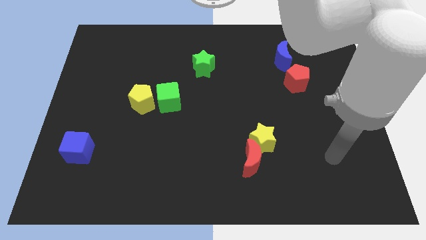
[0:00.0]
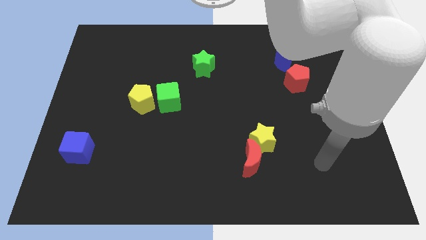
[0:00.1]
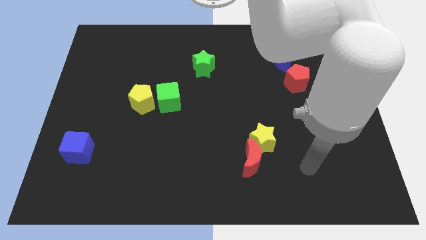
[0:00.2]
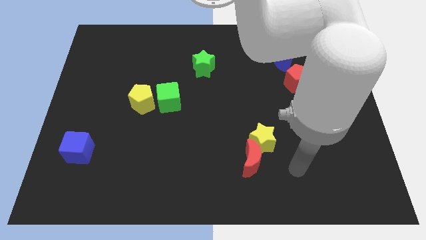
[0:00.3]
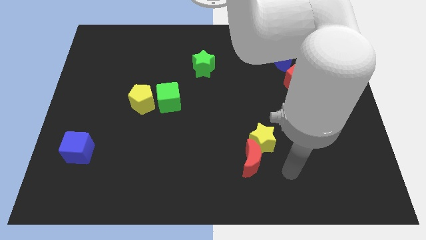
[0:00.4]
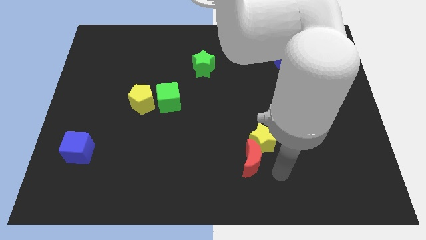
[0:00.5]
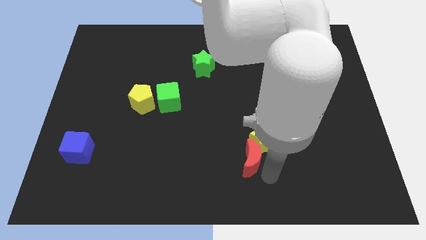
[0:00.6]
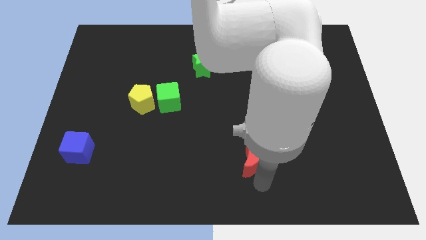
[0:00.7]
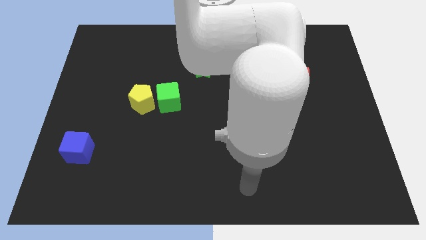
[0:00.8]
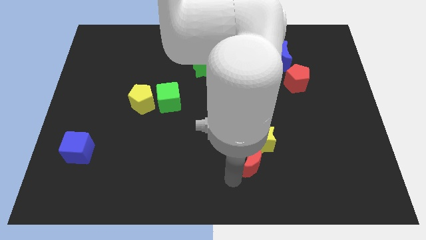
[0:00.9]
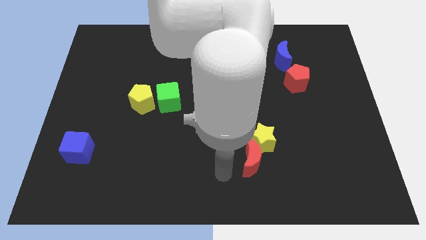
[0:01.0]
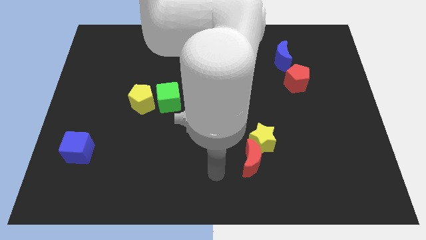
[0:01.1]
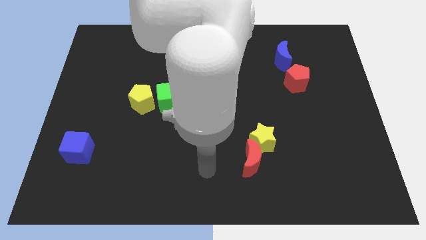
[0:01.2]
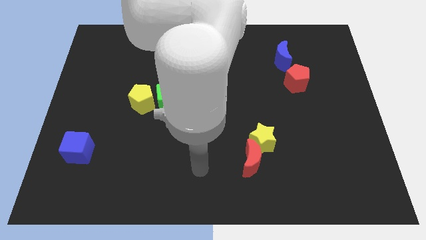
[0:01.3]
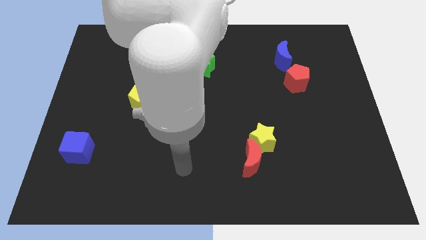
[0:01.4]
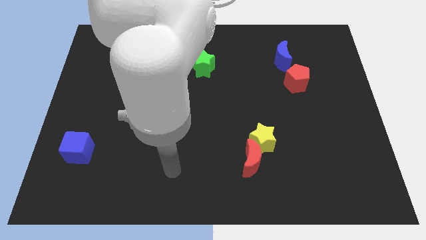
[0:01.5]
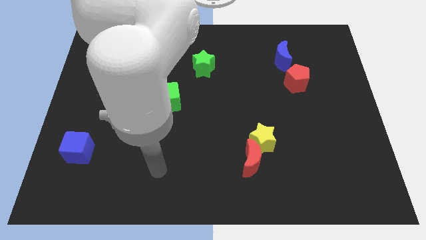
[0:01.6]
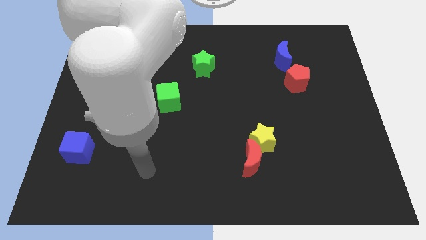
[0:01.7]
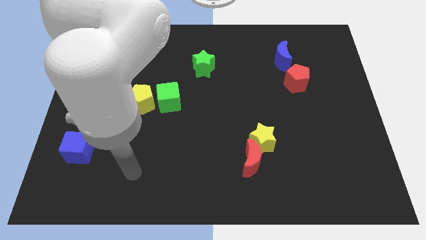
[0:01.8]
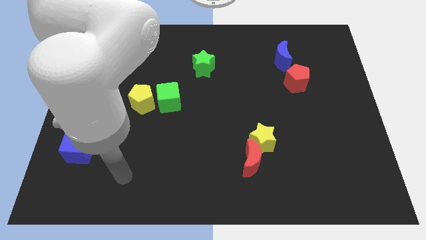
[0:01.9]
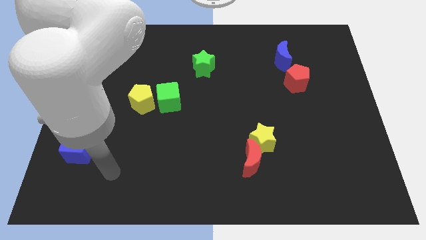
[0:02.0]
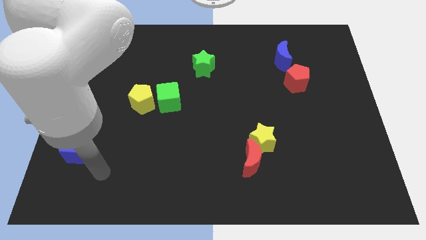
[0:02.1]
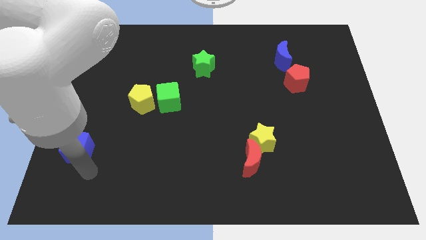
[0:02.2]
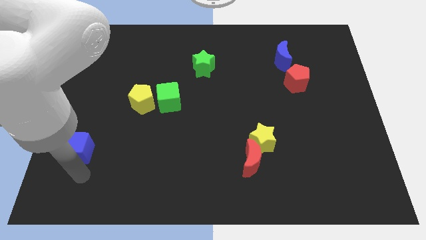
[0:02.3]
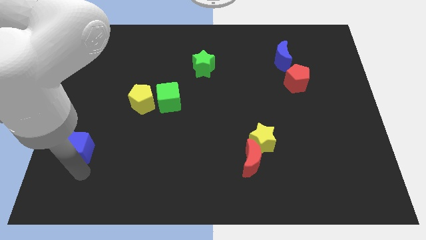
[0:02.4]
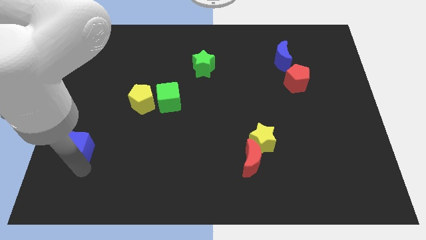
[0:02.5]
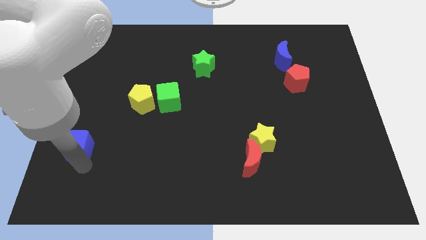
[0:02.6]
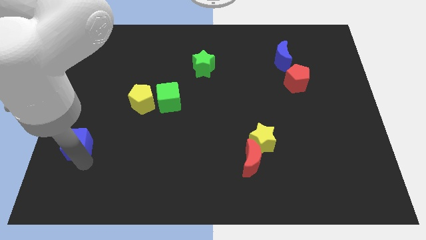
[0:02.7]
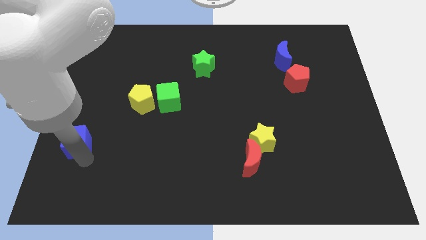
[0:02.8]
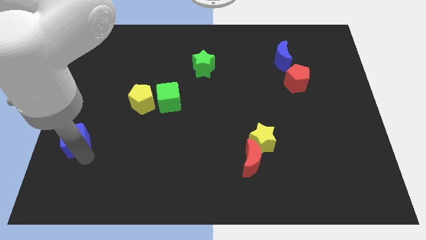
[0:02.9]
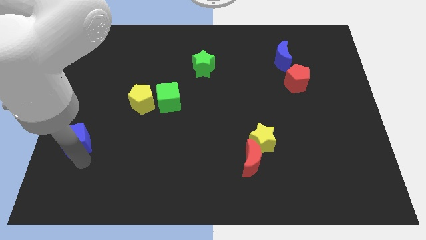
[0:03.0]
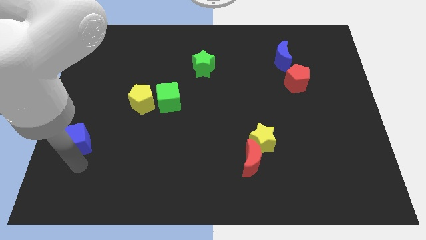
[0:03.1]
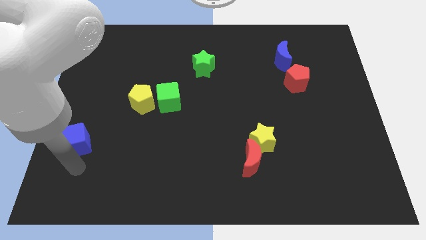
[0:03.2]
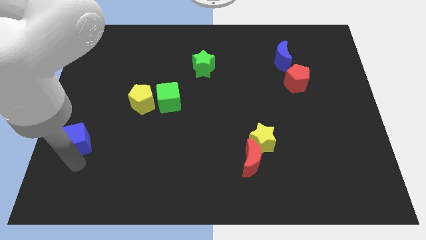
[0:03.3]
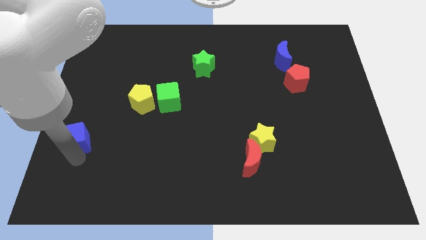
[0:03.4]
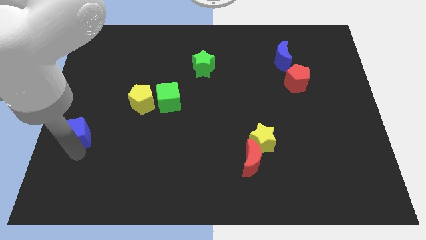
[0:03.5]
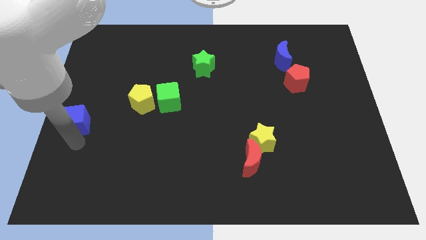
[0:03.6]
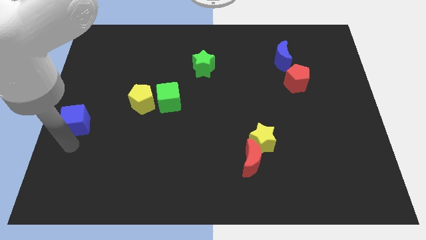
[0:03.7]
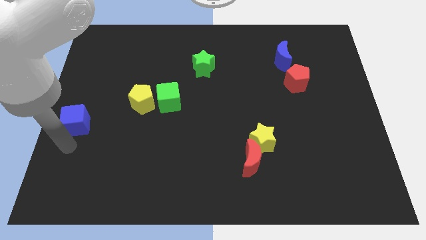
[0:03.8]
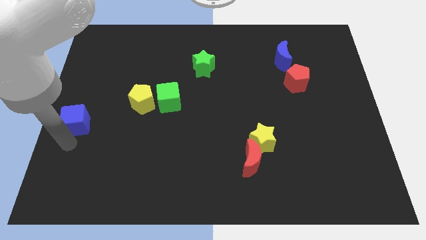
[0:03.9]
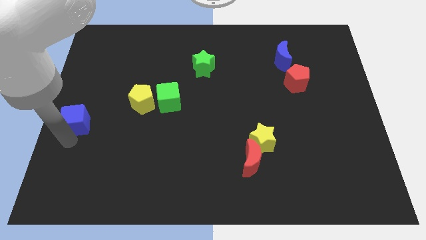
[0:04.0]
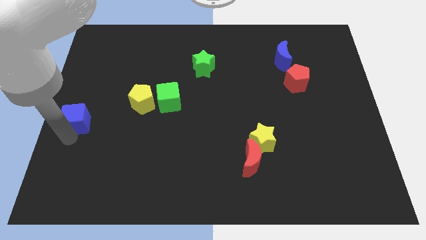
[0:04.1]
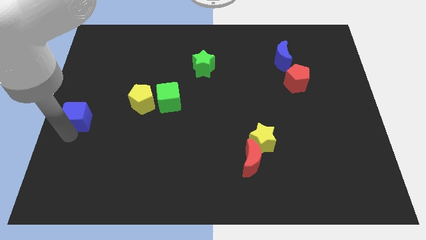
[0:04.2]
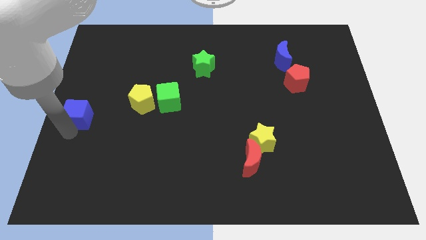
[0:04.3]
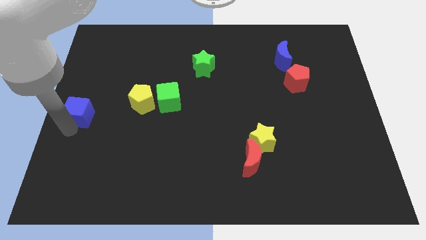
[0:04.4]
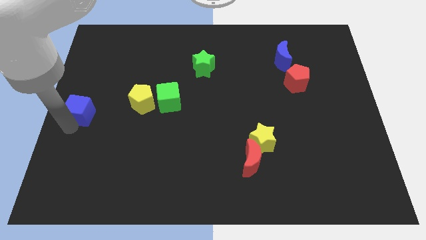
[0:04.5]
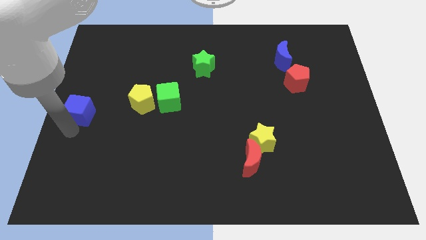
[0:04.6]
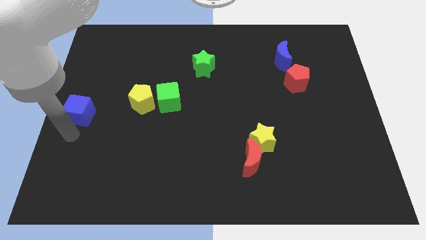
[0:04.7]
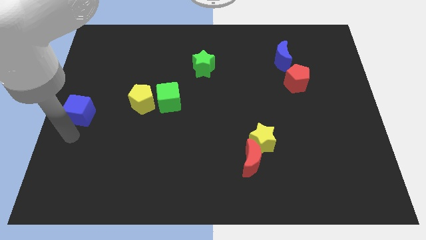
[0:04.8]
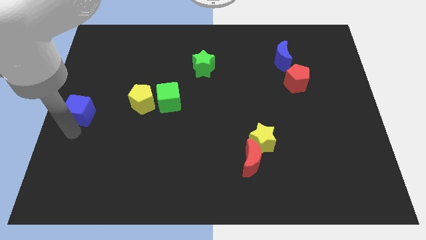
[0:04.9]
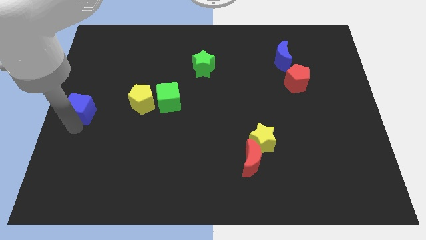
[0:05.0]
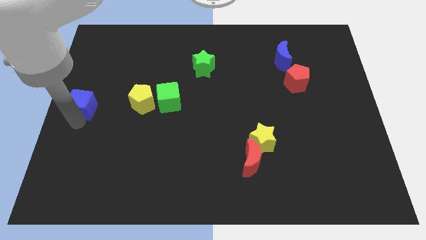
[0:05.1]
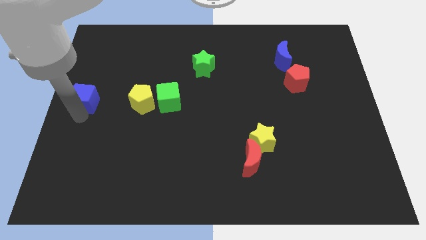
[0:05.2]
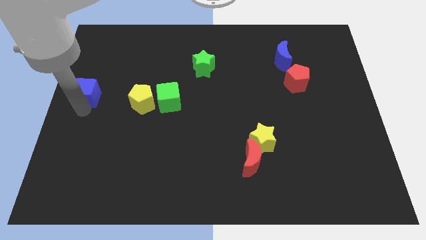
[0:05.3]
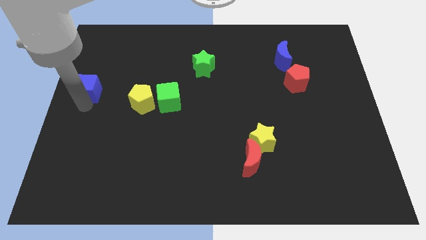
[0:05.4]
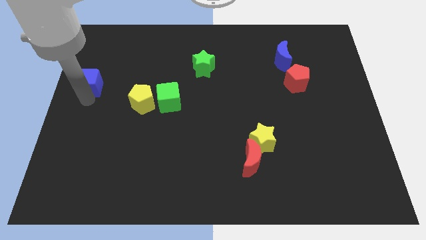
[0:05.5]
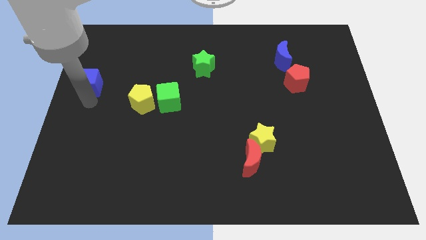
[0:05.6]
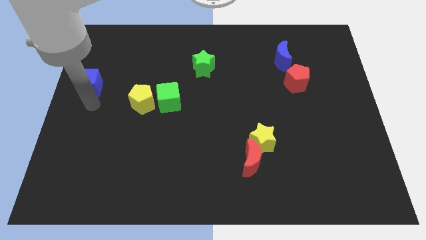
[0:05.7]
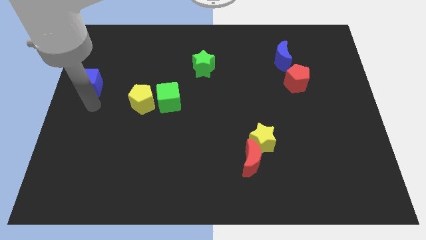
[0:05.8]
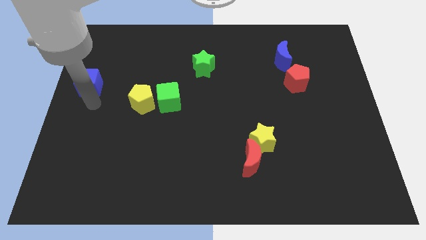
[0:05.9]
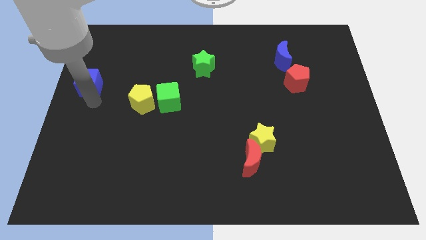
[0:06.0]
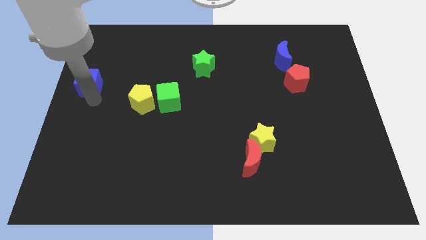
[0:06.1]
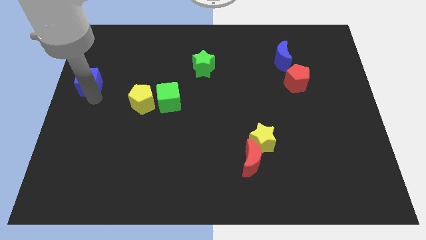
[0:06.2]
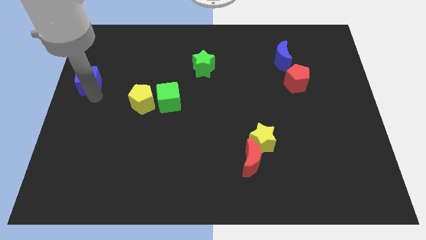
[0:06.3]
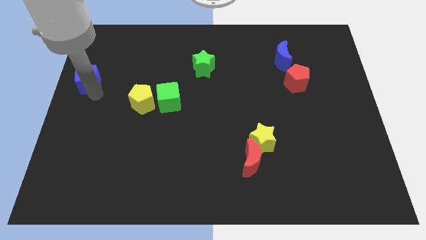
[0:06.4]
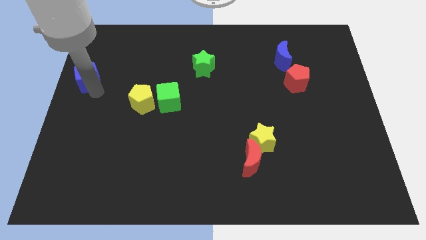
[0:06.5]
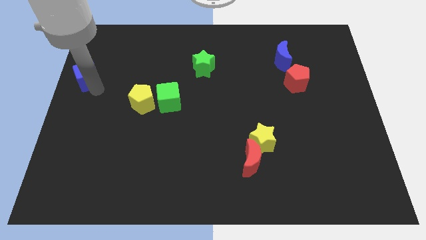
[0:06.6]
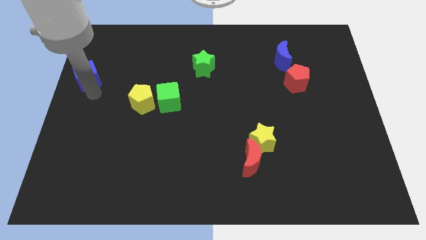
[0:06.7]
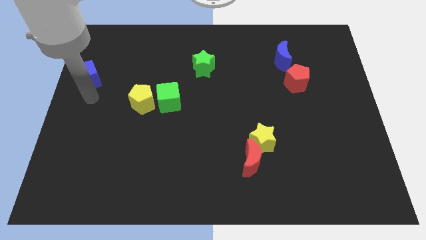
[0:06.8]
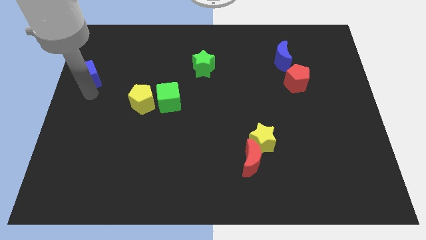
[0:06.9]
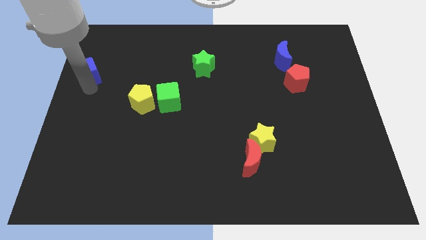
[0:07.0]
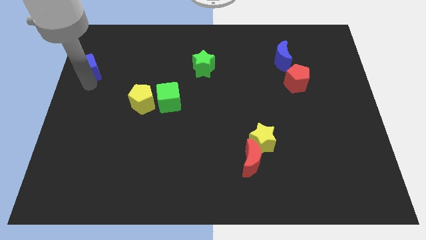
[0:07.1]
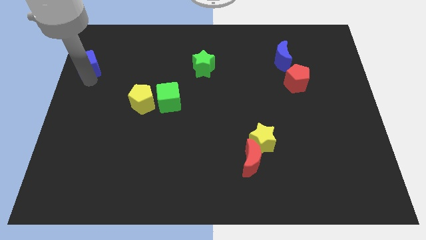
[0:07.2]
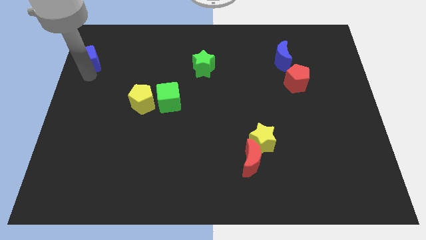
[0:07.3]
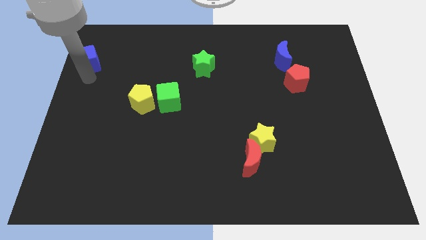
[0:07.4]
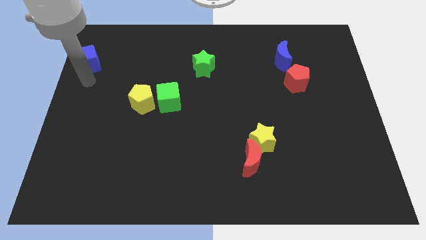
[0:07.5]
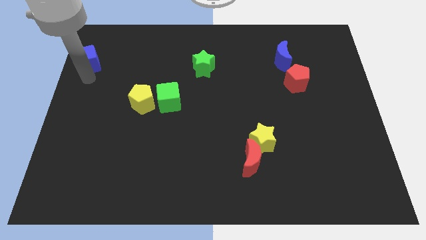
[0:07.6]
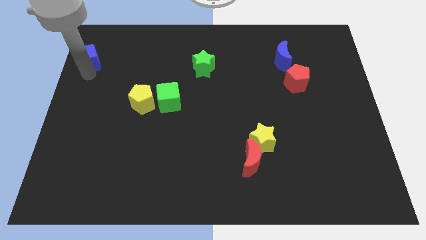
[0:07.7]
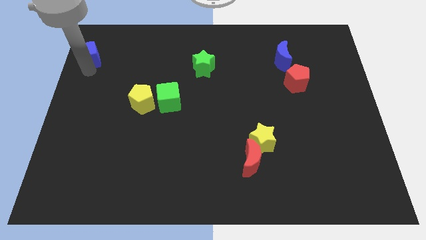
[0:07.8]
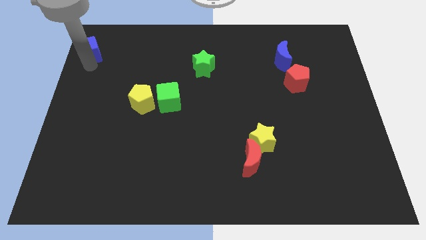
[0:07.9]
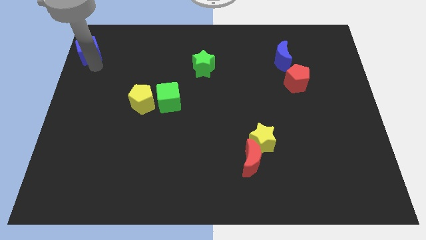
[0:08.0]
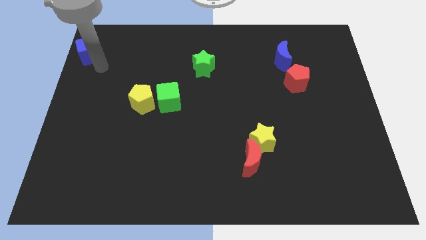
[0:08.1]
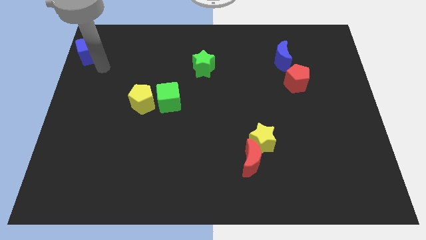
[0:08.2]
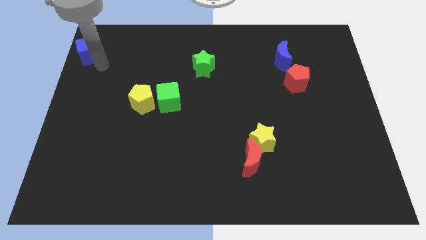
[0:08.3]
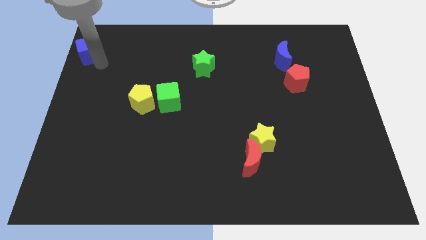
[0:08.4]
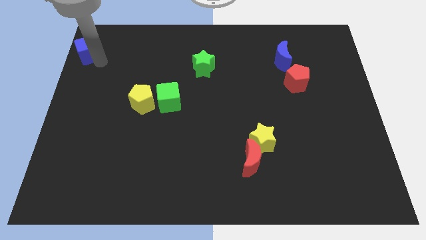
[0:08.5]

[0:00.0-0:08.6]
push the blue cube to the top left corner
